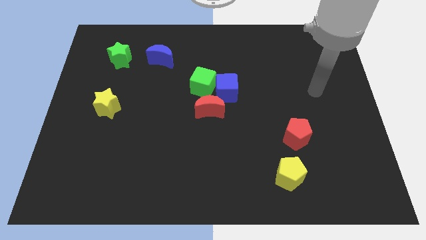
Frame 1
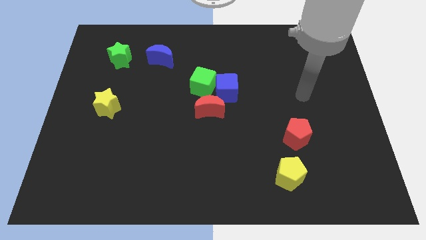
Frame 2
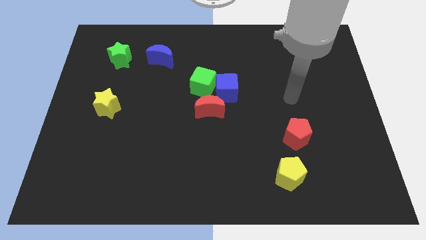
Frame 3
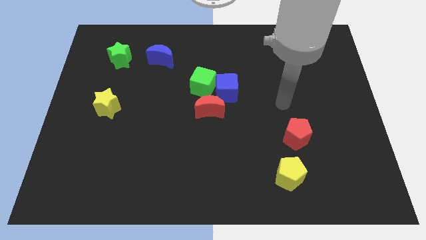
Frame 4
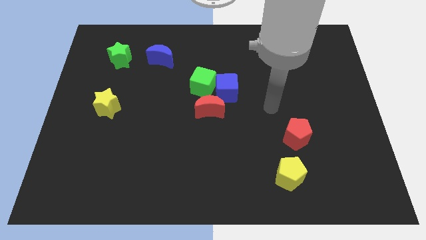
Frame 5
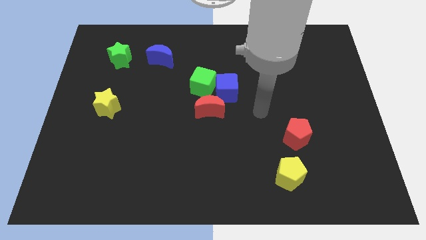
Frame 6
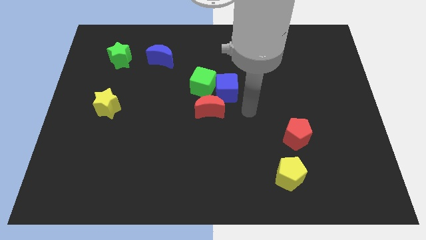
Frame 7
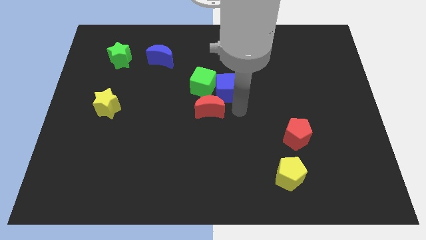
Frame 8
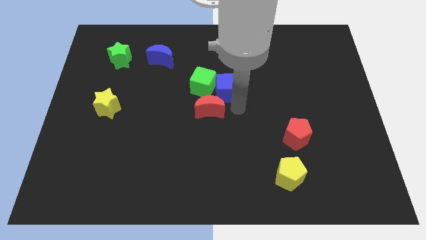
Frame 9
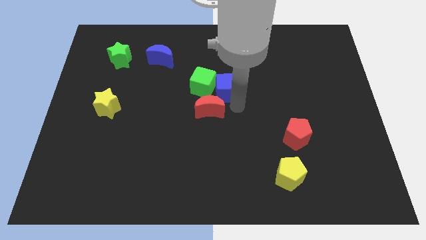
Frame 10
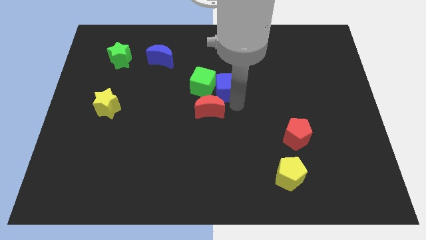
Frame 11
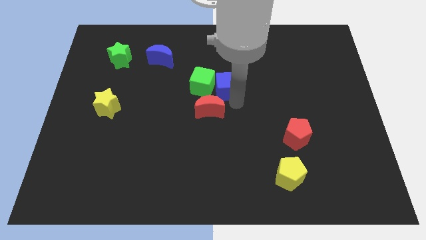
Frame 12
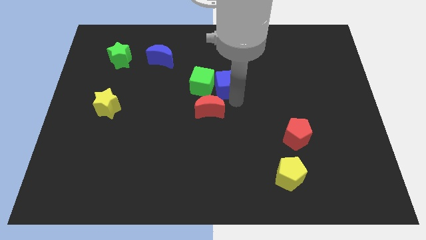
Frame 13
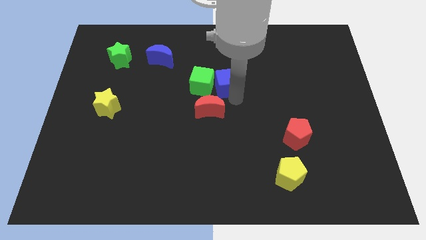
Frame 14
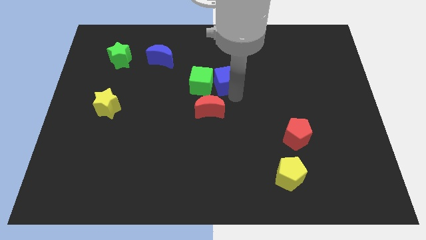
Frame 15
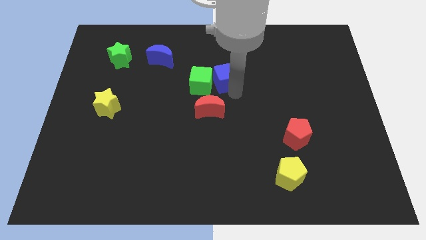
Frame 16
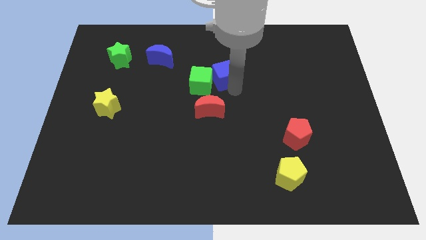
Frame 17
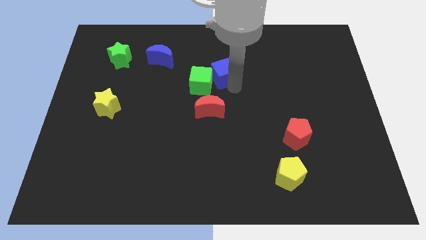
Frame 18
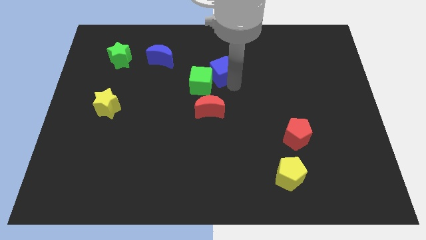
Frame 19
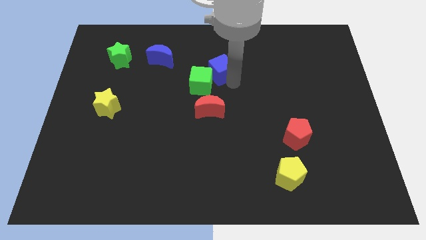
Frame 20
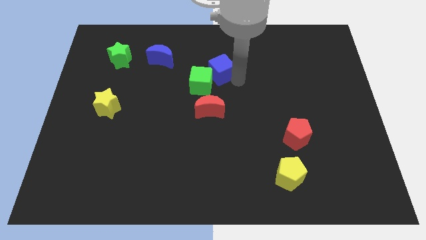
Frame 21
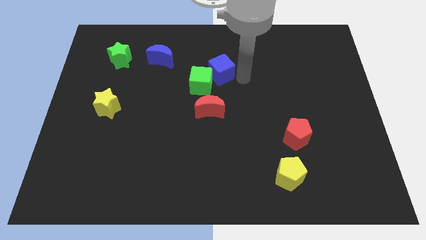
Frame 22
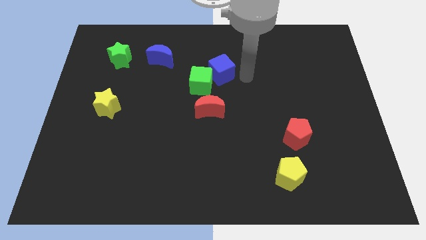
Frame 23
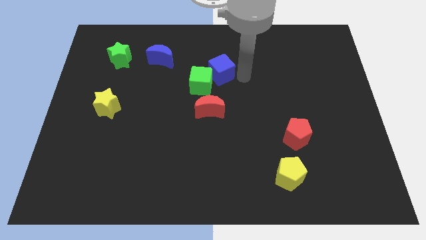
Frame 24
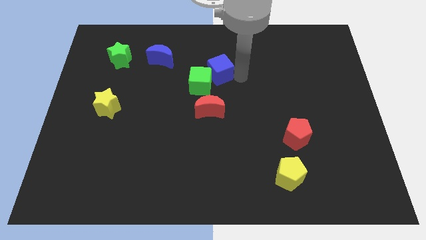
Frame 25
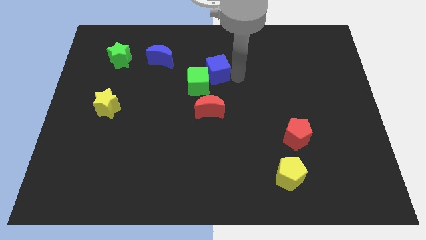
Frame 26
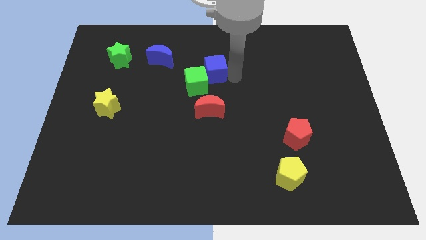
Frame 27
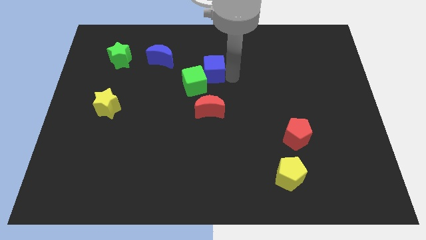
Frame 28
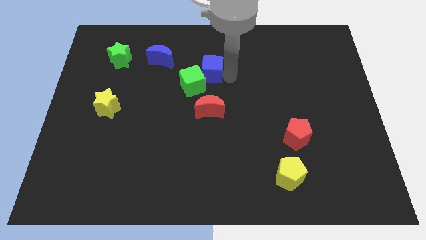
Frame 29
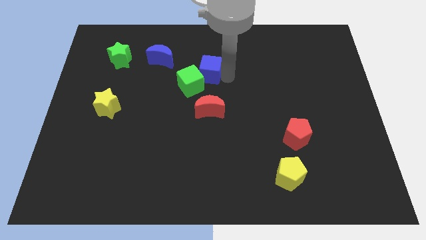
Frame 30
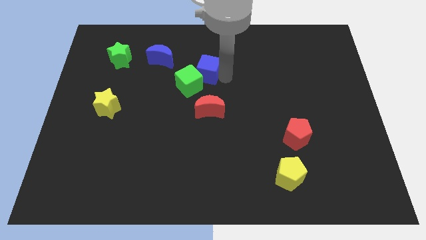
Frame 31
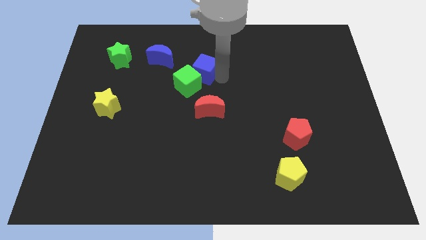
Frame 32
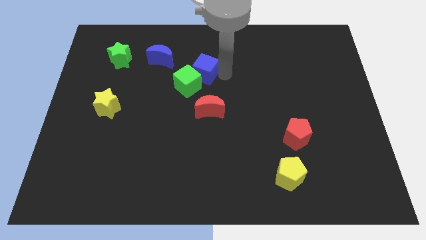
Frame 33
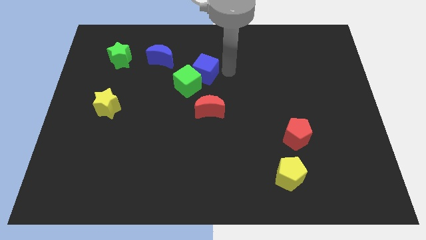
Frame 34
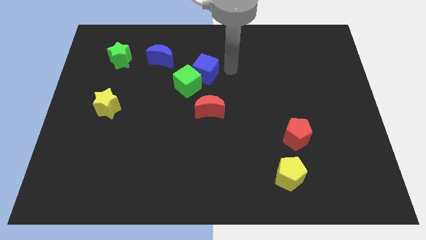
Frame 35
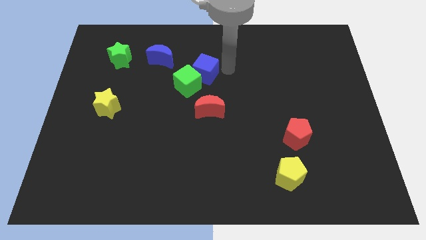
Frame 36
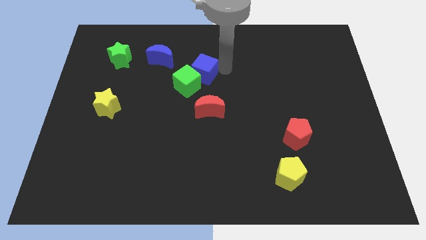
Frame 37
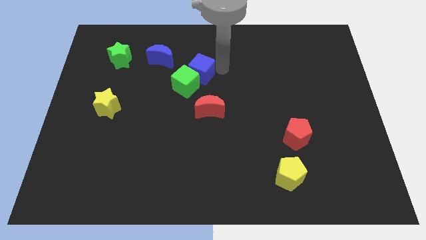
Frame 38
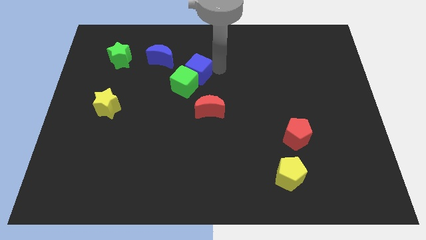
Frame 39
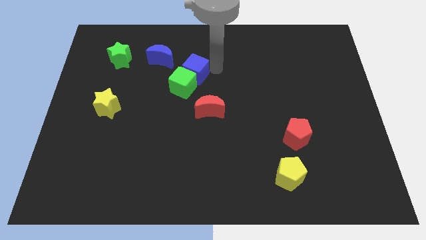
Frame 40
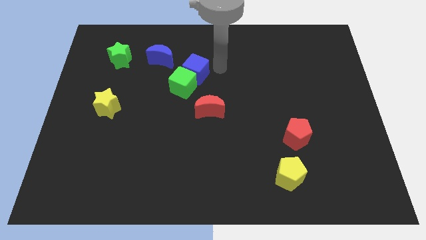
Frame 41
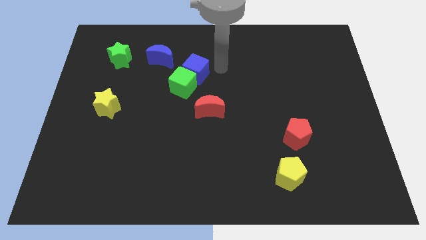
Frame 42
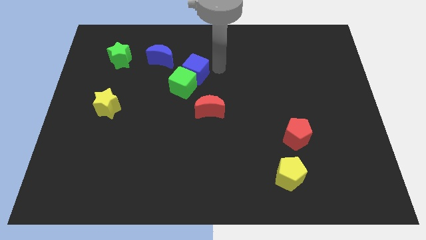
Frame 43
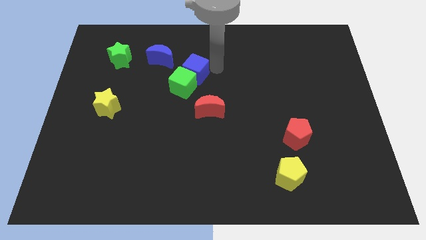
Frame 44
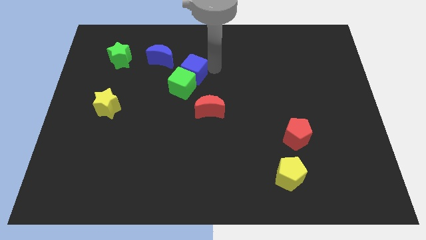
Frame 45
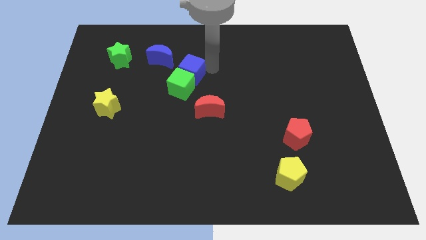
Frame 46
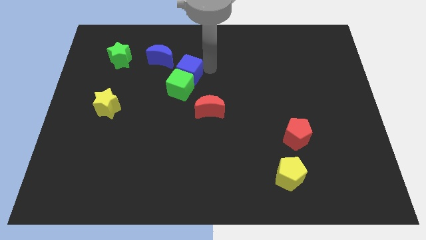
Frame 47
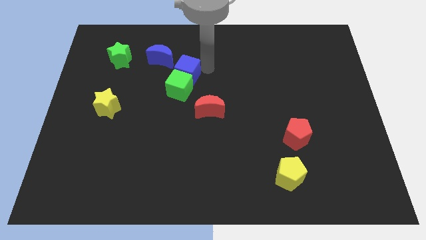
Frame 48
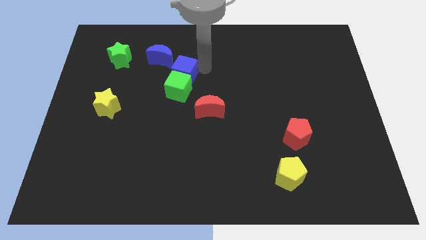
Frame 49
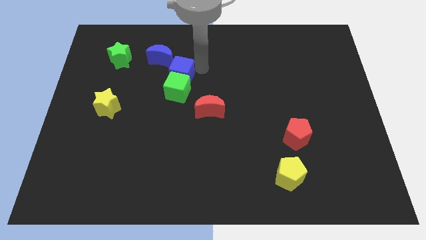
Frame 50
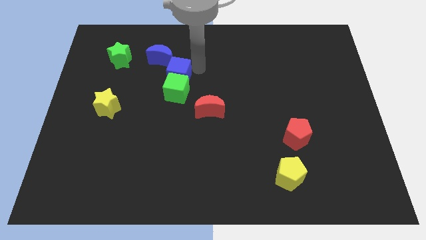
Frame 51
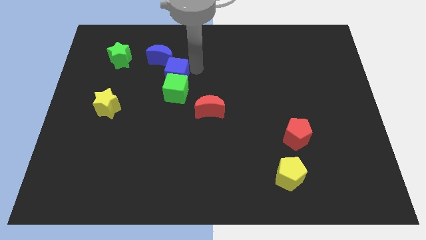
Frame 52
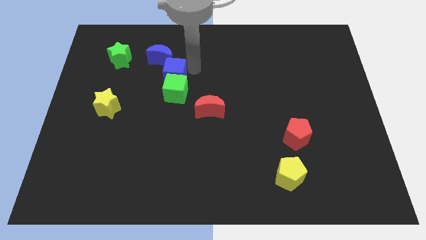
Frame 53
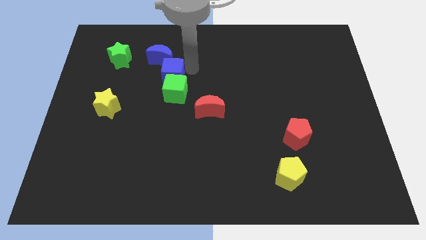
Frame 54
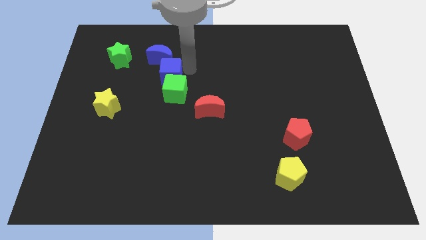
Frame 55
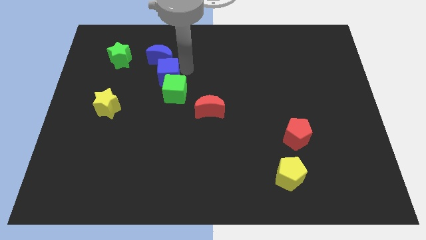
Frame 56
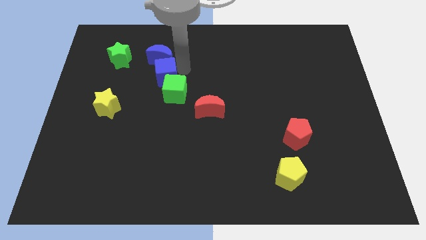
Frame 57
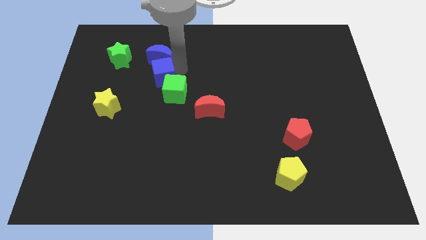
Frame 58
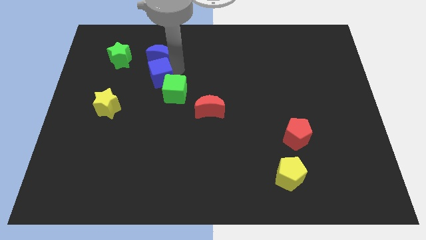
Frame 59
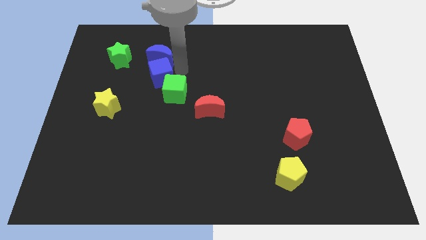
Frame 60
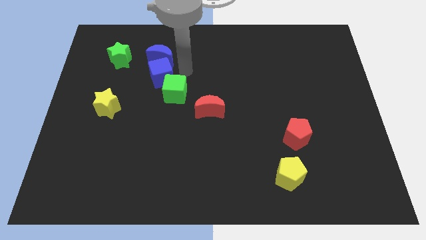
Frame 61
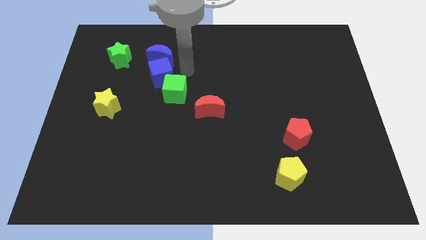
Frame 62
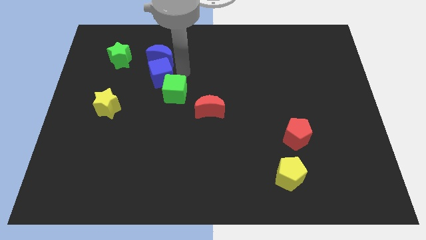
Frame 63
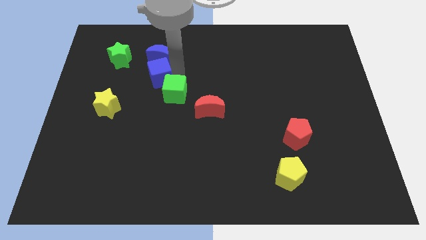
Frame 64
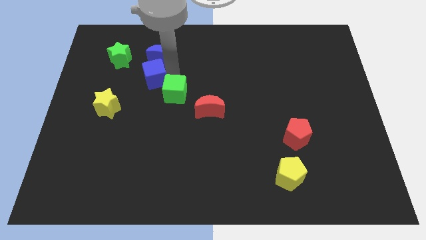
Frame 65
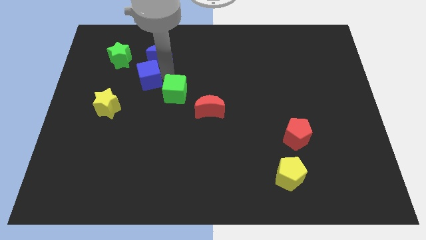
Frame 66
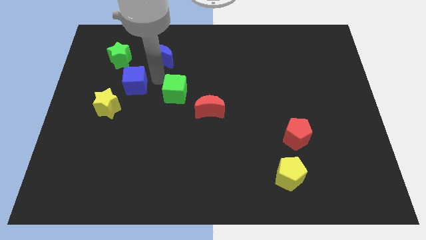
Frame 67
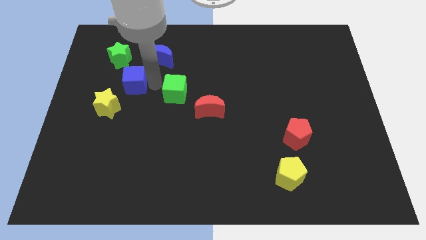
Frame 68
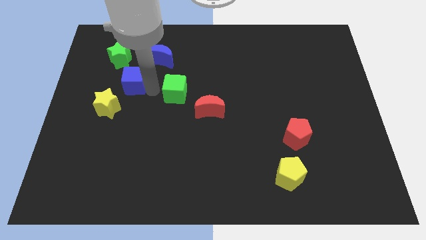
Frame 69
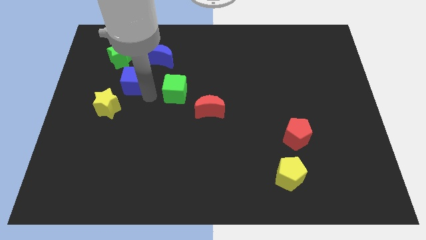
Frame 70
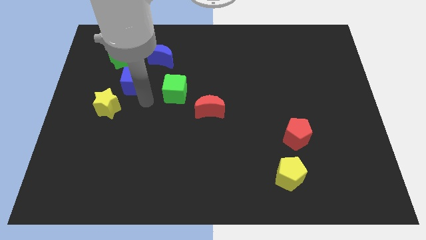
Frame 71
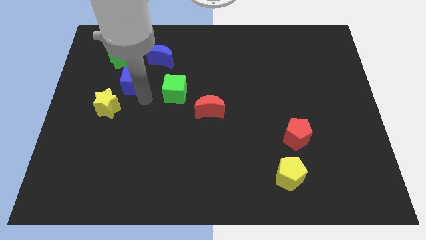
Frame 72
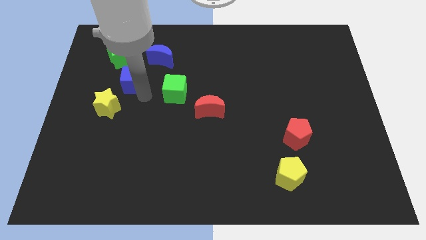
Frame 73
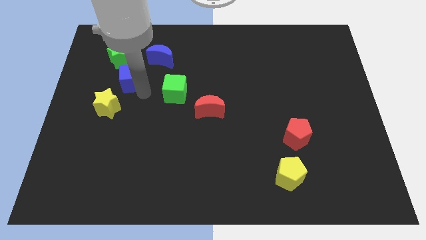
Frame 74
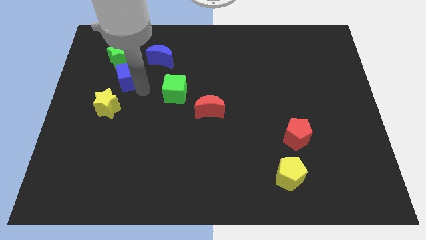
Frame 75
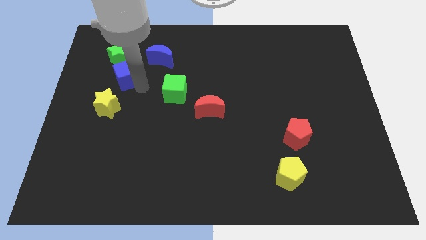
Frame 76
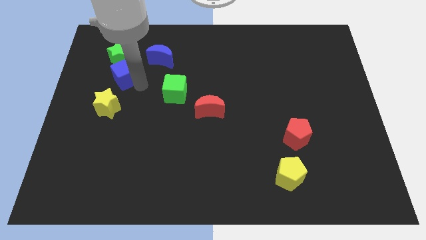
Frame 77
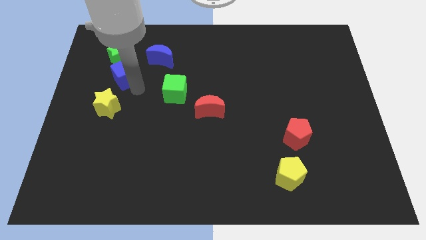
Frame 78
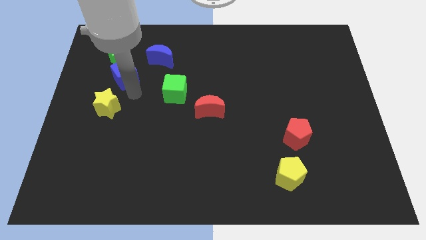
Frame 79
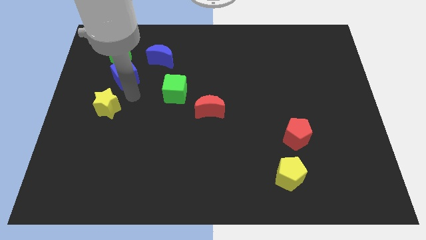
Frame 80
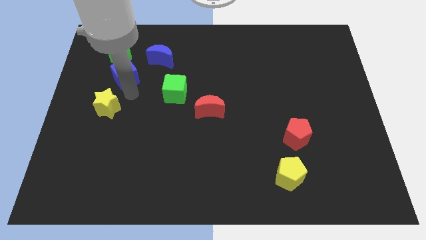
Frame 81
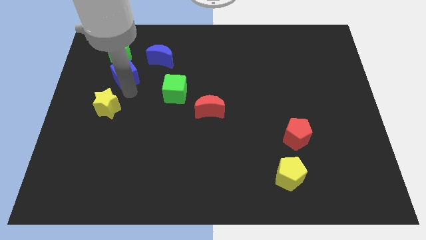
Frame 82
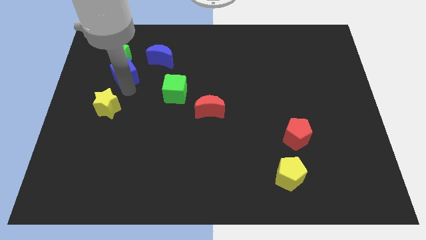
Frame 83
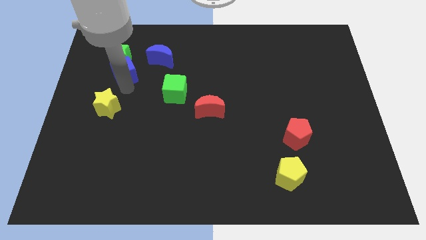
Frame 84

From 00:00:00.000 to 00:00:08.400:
slide the blue cube next to the green star
